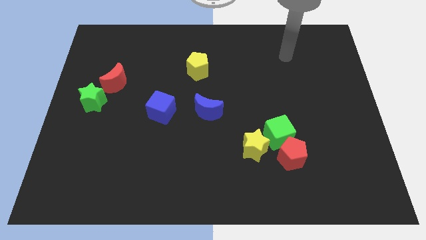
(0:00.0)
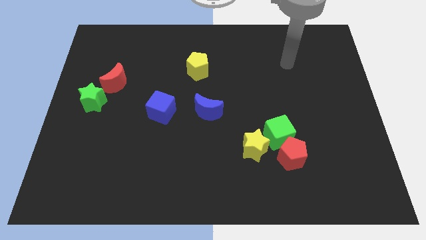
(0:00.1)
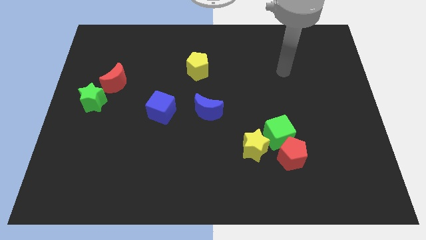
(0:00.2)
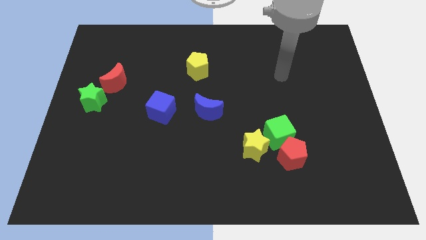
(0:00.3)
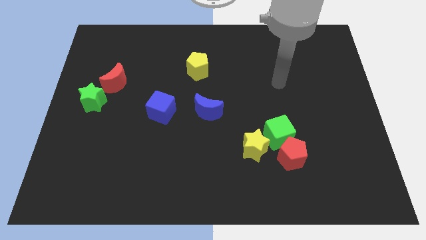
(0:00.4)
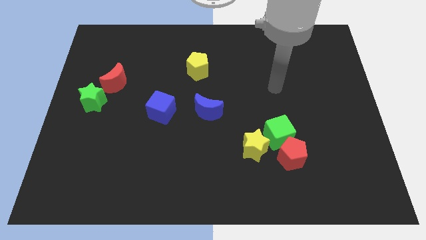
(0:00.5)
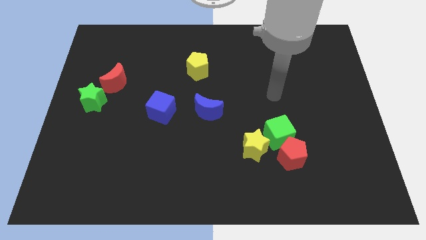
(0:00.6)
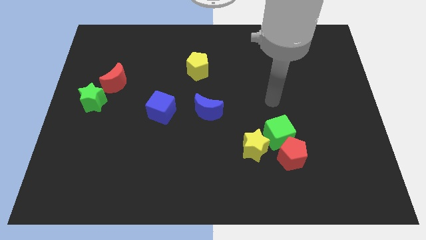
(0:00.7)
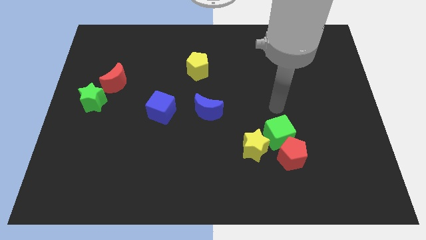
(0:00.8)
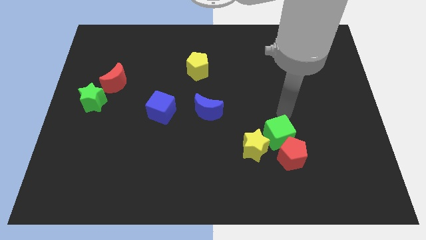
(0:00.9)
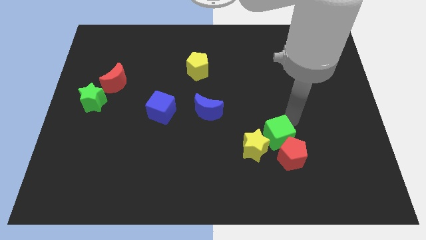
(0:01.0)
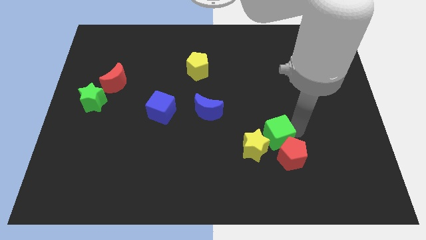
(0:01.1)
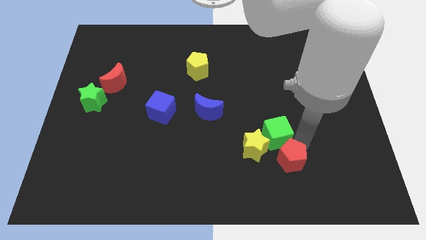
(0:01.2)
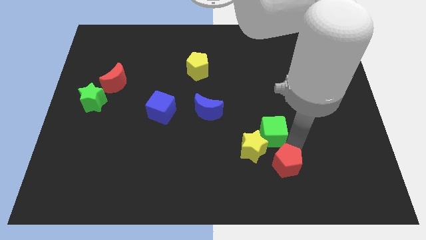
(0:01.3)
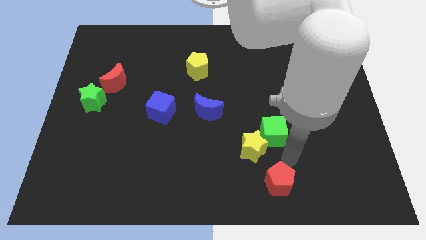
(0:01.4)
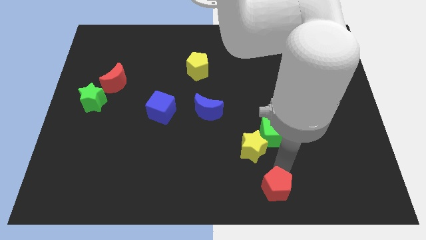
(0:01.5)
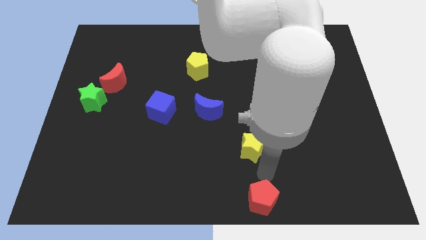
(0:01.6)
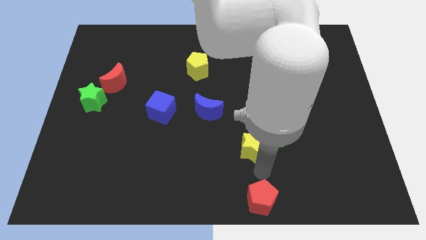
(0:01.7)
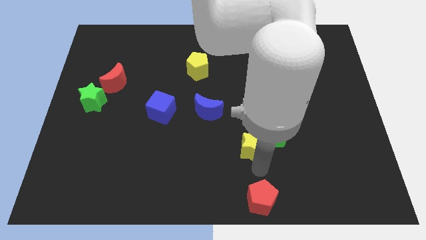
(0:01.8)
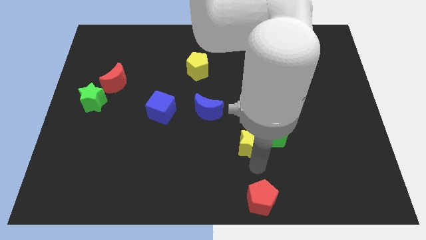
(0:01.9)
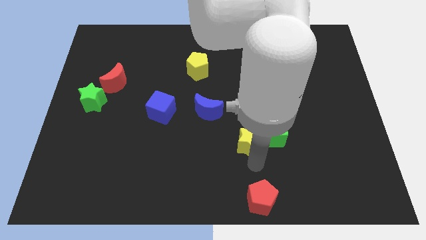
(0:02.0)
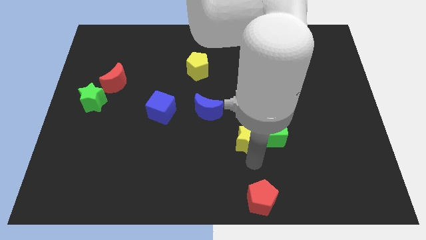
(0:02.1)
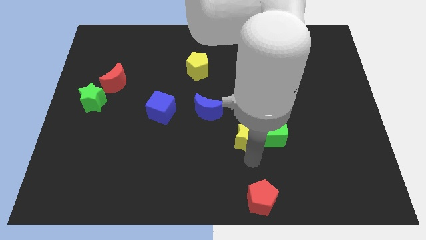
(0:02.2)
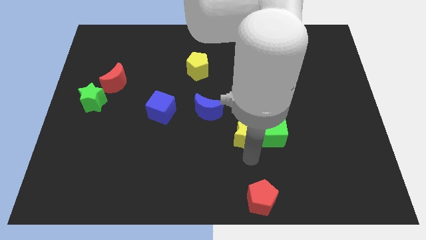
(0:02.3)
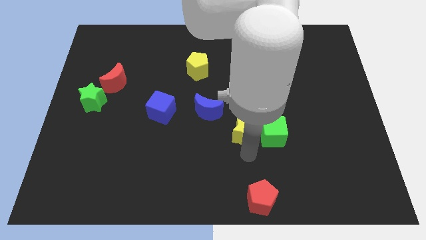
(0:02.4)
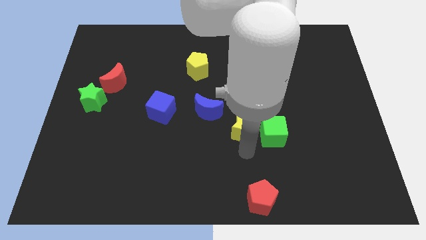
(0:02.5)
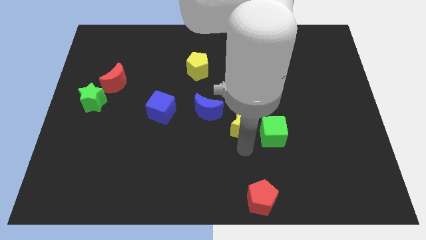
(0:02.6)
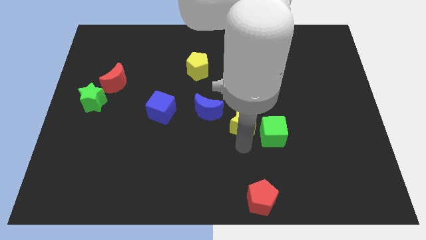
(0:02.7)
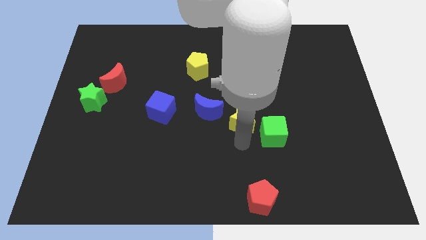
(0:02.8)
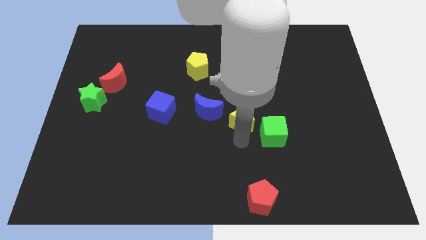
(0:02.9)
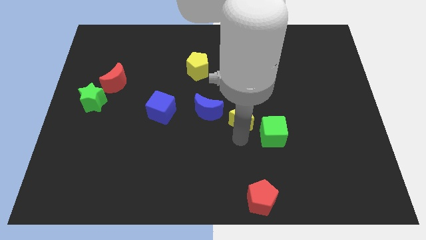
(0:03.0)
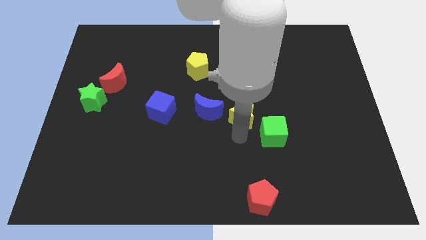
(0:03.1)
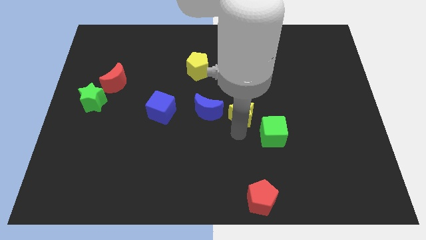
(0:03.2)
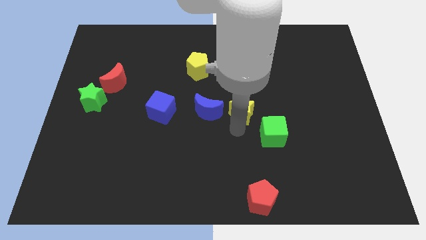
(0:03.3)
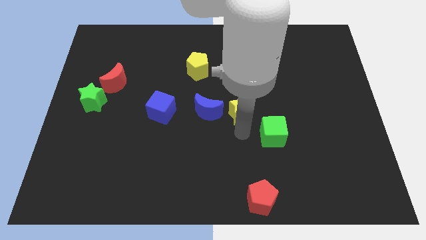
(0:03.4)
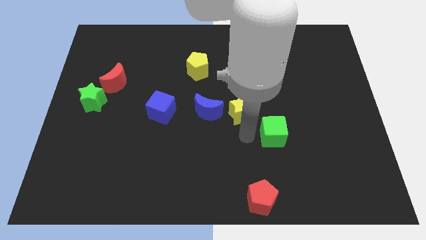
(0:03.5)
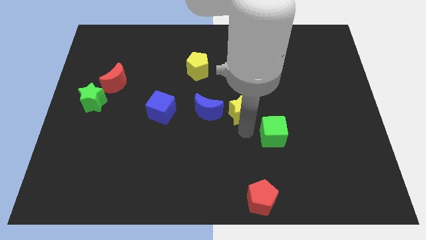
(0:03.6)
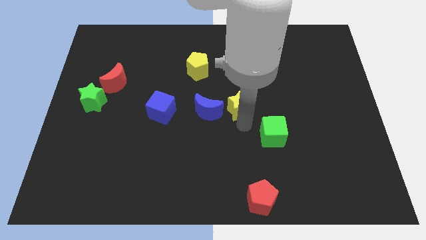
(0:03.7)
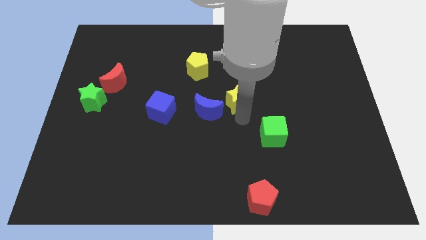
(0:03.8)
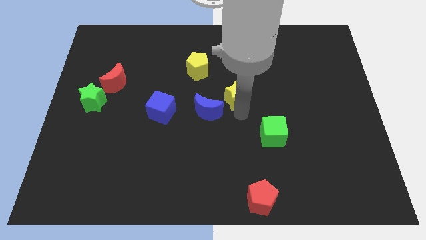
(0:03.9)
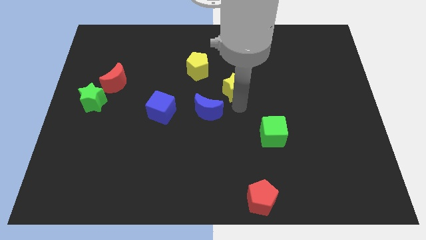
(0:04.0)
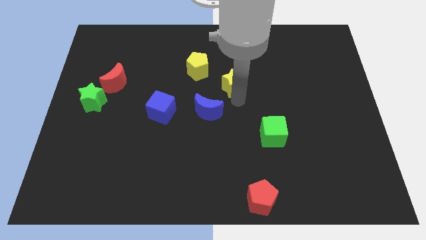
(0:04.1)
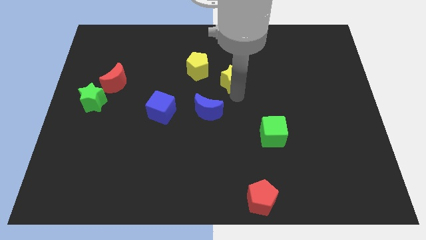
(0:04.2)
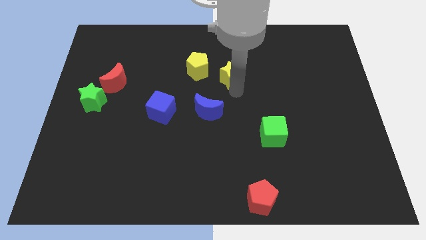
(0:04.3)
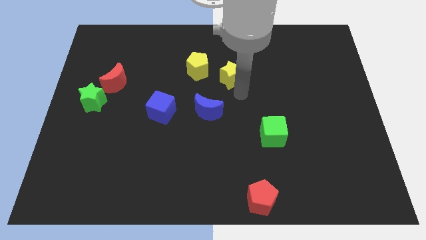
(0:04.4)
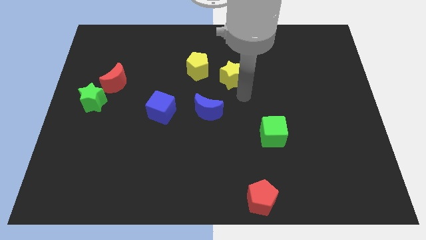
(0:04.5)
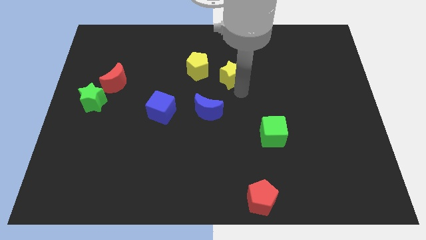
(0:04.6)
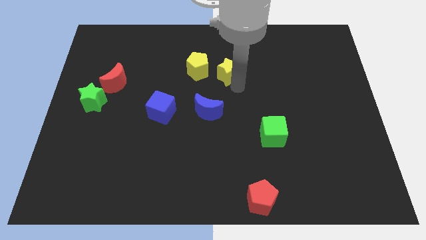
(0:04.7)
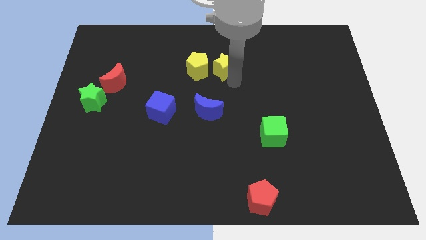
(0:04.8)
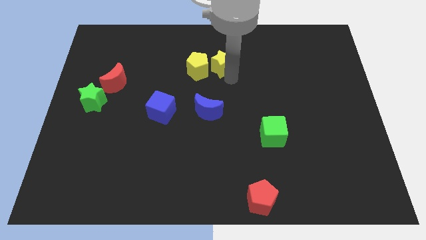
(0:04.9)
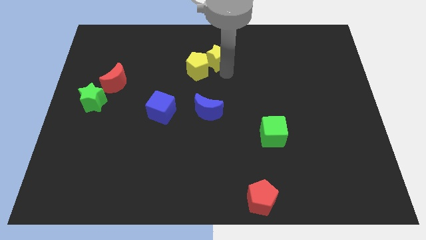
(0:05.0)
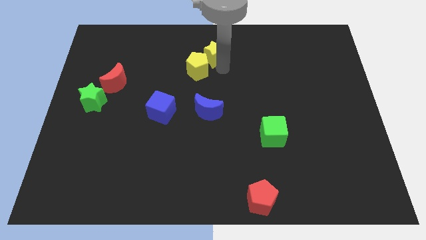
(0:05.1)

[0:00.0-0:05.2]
move the yellow star to the top
